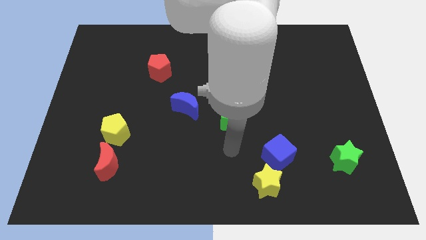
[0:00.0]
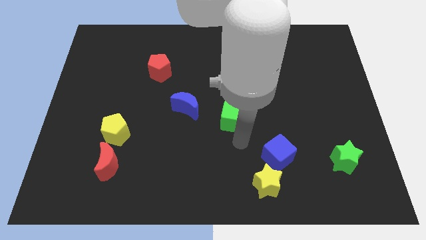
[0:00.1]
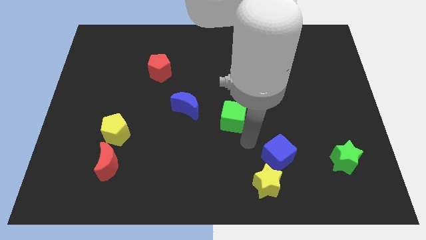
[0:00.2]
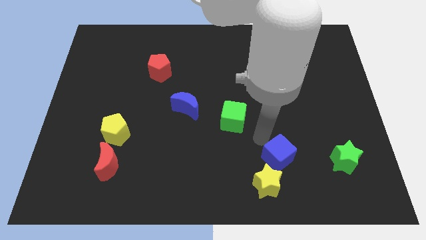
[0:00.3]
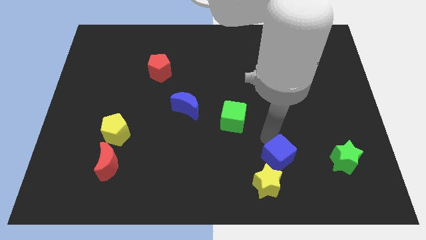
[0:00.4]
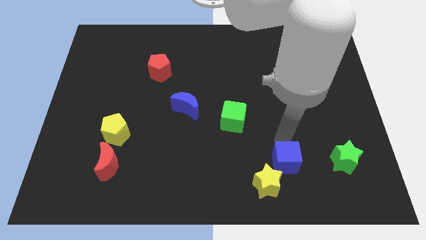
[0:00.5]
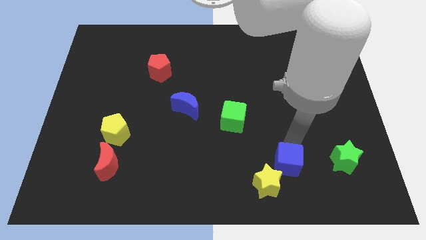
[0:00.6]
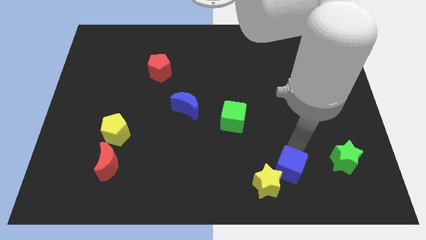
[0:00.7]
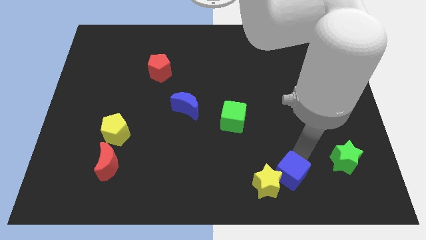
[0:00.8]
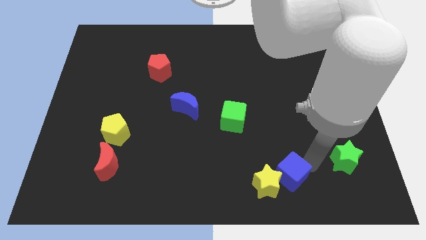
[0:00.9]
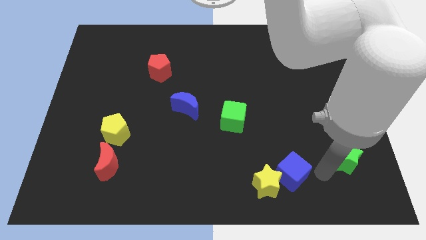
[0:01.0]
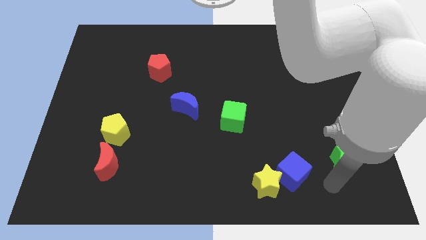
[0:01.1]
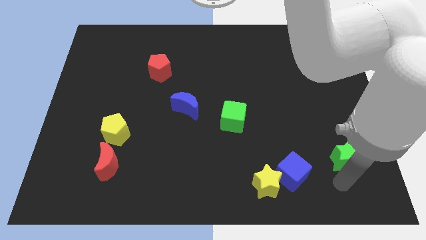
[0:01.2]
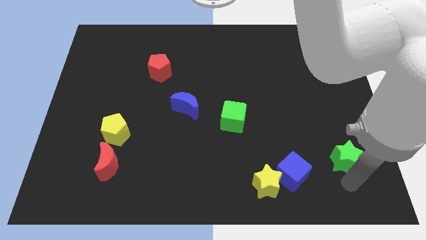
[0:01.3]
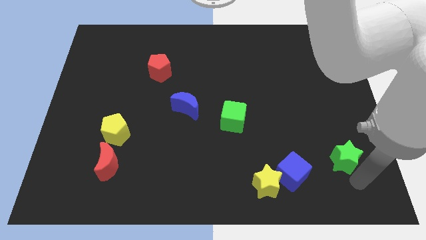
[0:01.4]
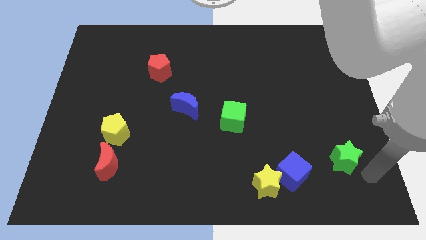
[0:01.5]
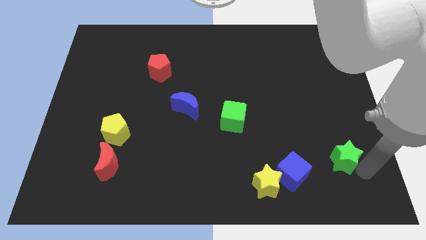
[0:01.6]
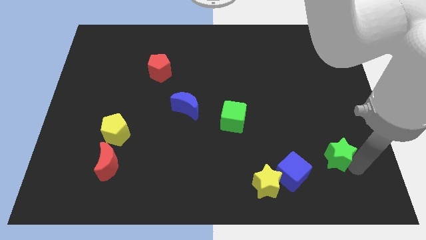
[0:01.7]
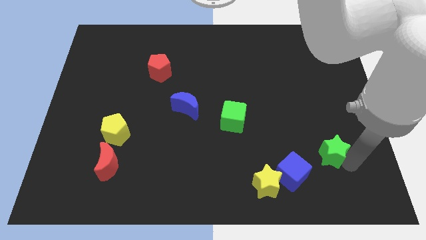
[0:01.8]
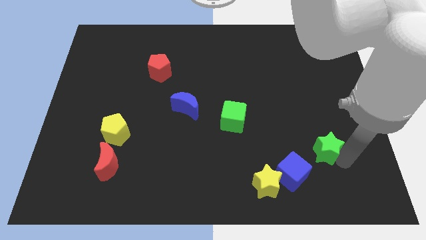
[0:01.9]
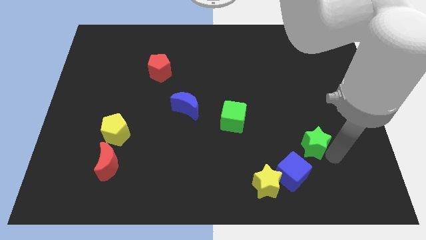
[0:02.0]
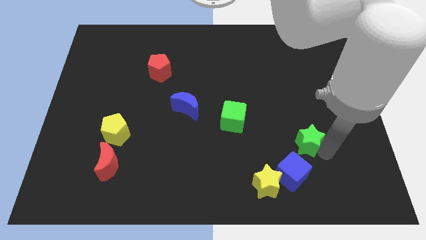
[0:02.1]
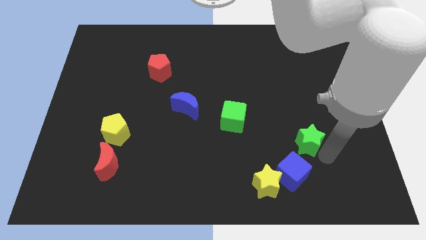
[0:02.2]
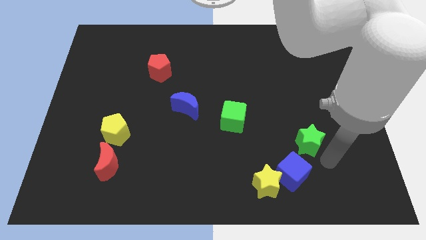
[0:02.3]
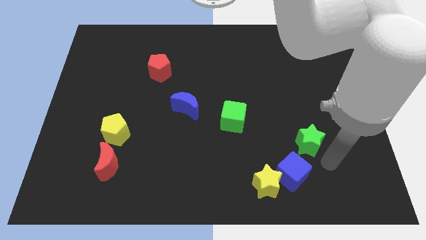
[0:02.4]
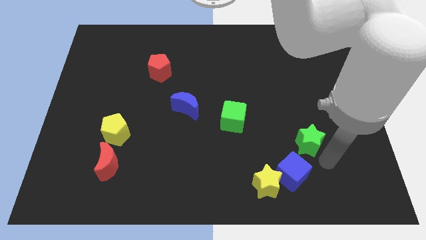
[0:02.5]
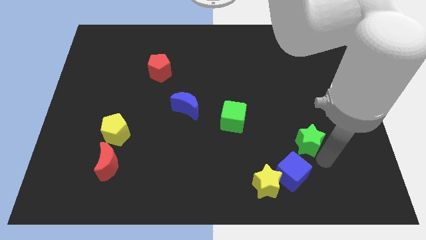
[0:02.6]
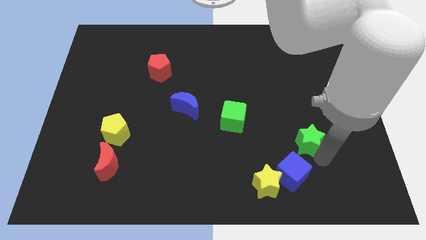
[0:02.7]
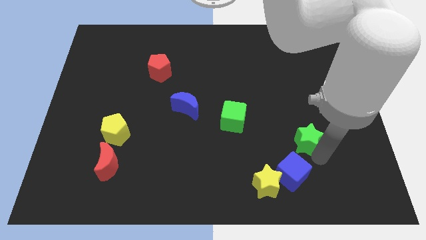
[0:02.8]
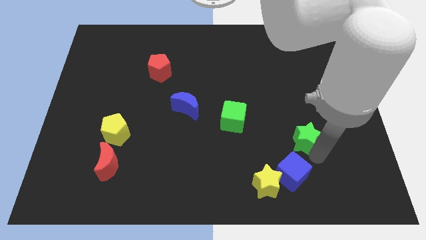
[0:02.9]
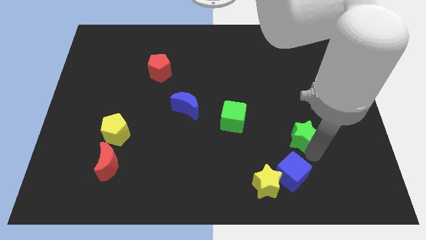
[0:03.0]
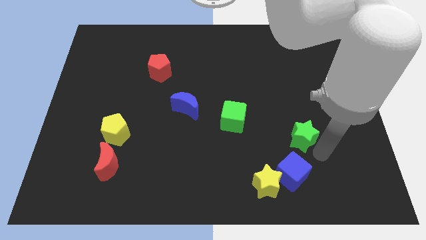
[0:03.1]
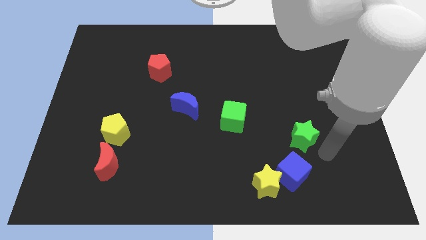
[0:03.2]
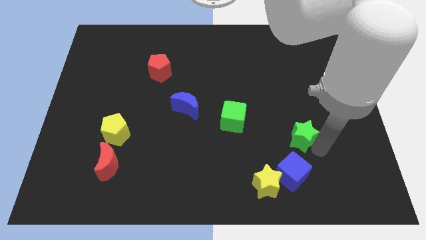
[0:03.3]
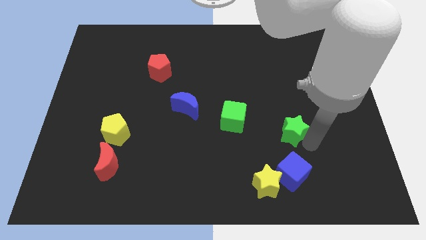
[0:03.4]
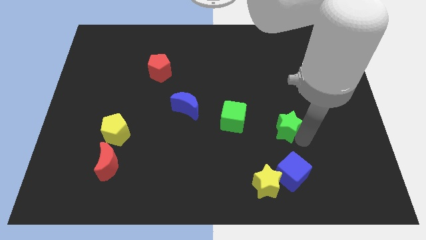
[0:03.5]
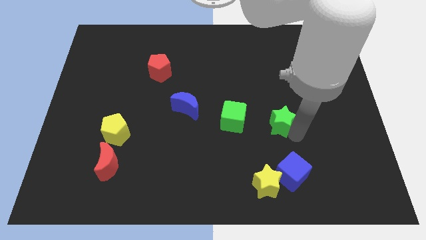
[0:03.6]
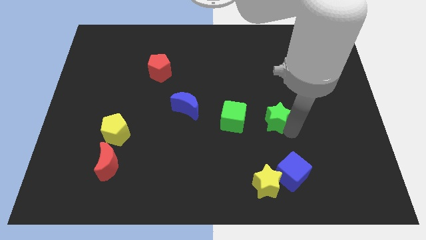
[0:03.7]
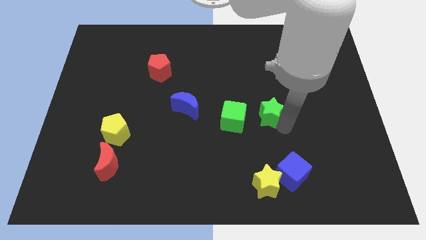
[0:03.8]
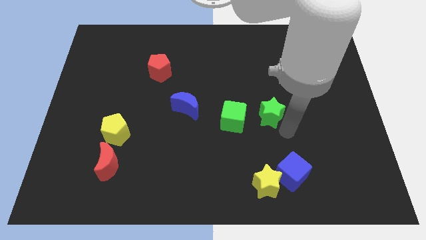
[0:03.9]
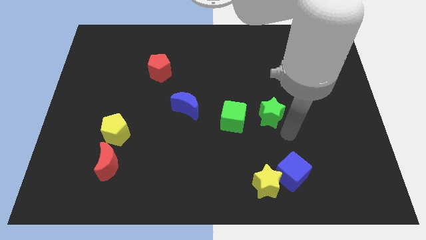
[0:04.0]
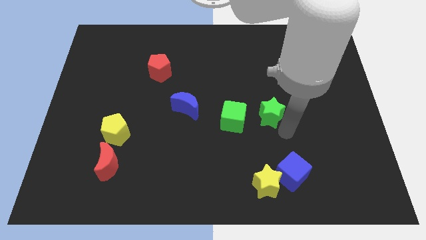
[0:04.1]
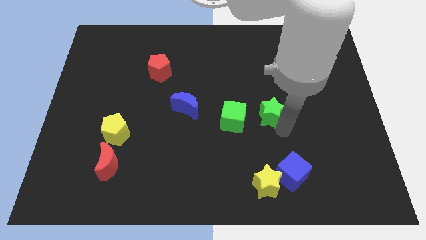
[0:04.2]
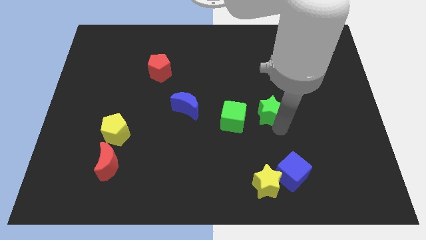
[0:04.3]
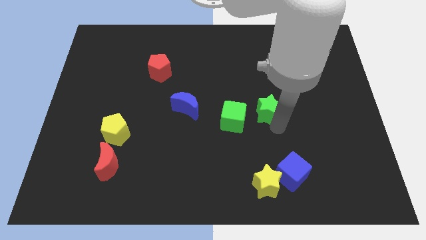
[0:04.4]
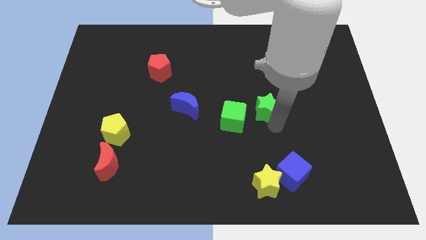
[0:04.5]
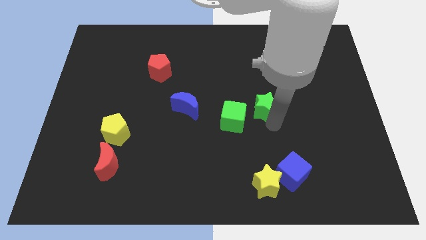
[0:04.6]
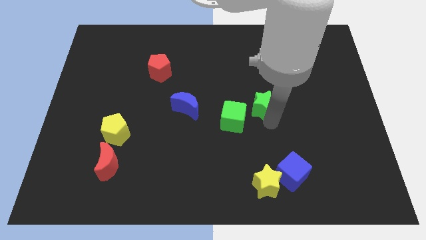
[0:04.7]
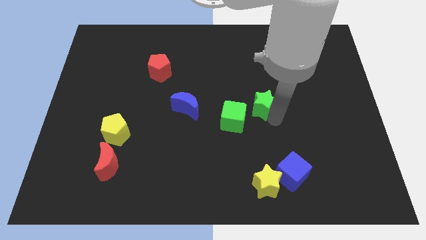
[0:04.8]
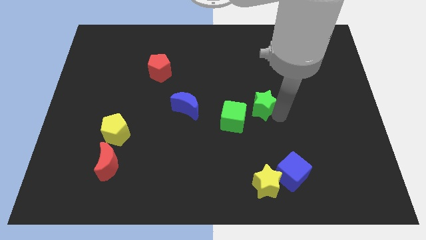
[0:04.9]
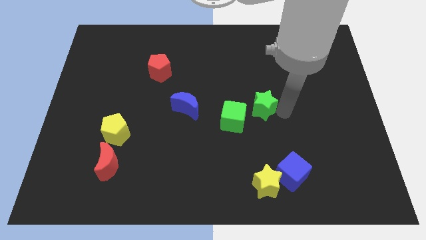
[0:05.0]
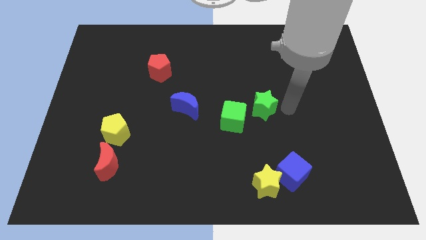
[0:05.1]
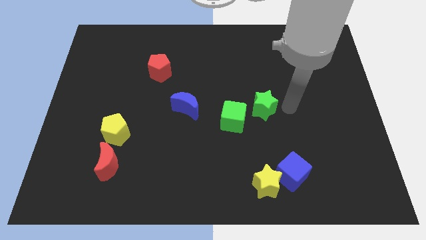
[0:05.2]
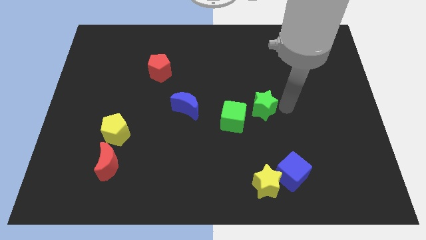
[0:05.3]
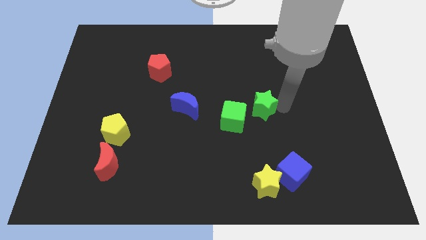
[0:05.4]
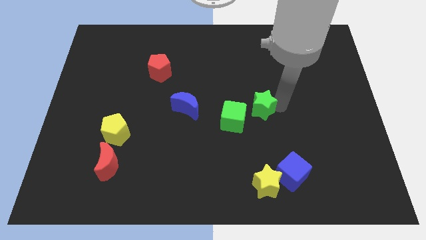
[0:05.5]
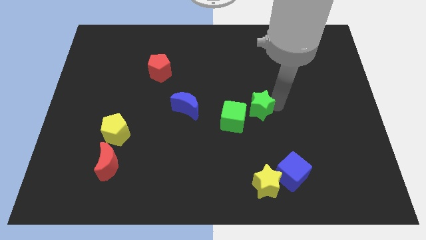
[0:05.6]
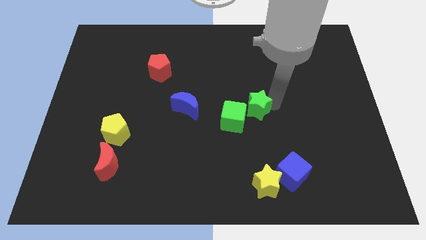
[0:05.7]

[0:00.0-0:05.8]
move the green star to the right side of the blue moon

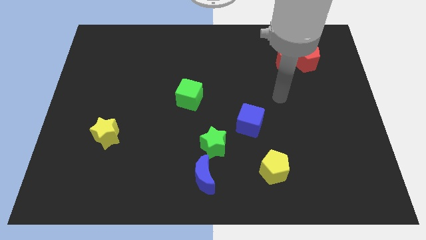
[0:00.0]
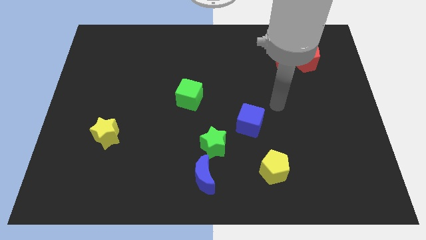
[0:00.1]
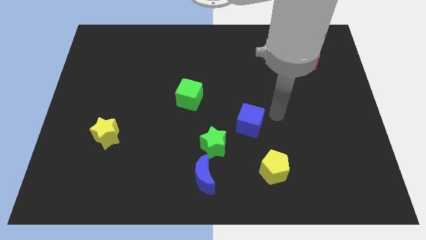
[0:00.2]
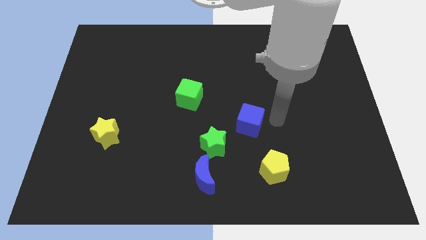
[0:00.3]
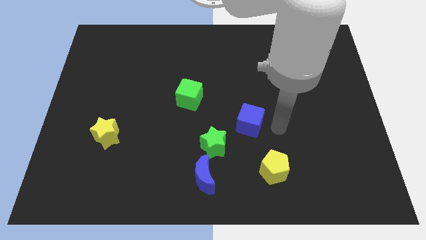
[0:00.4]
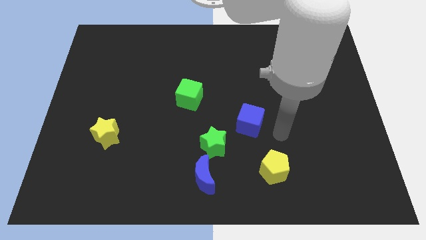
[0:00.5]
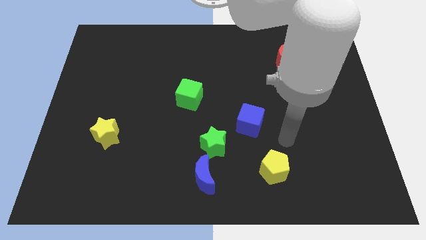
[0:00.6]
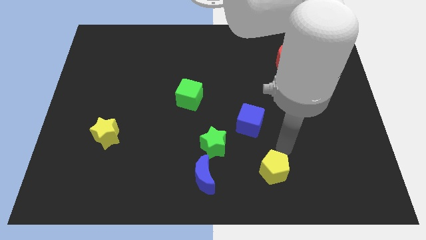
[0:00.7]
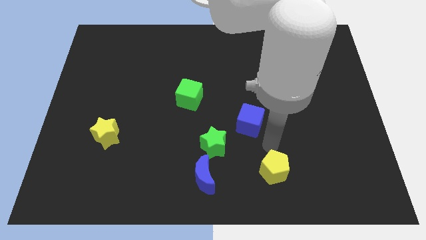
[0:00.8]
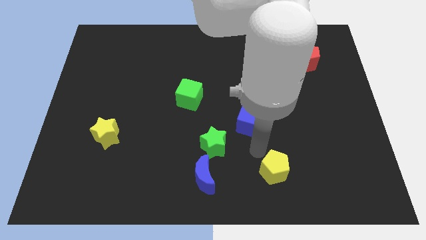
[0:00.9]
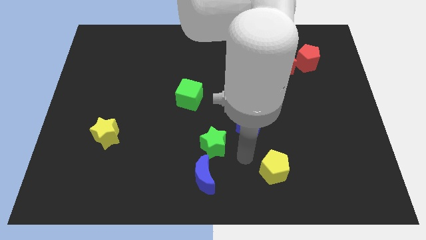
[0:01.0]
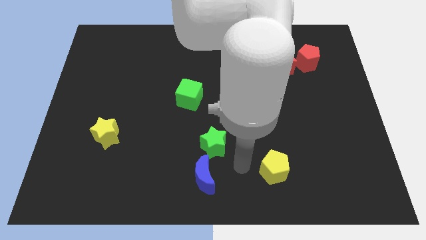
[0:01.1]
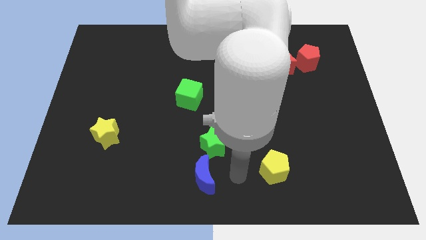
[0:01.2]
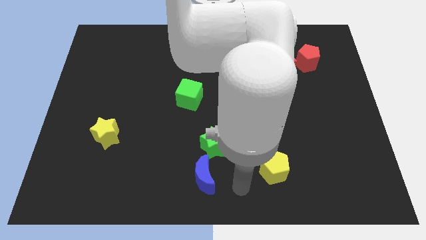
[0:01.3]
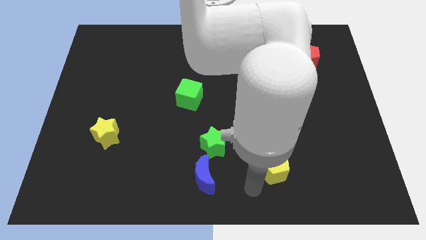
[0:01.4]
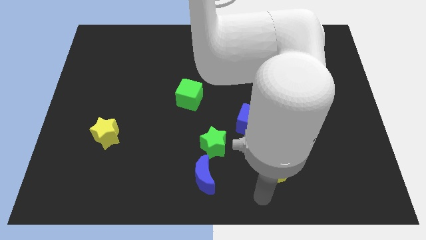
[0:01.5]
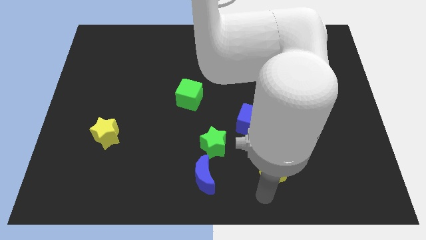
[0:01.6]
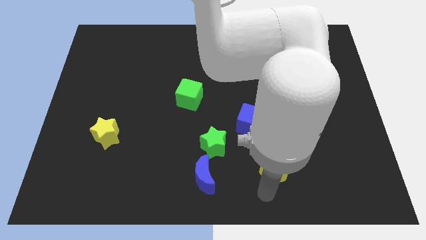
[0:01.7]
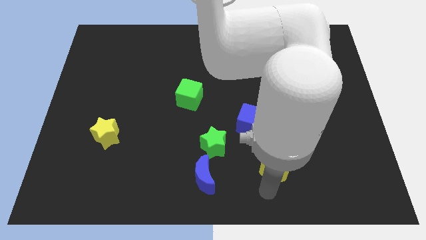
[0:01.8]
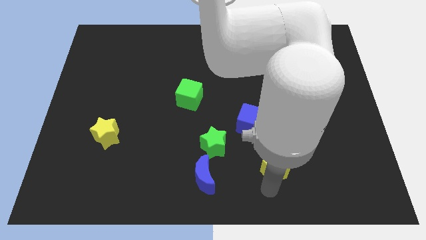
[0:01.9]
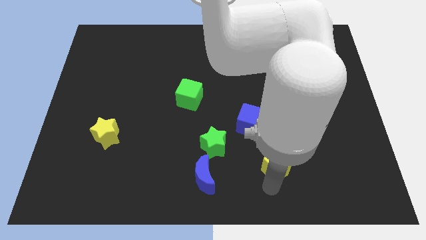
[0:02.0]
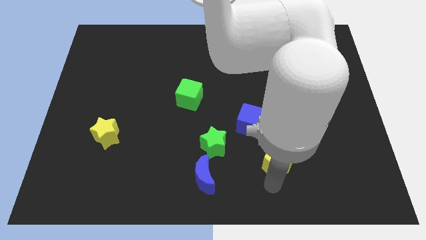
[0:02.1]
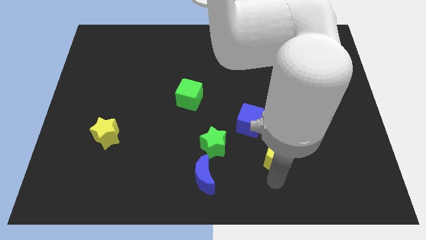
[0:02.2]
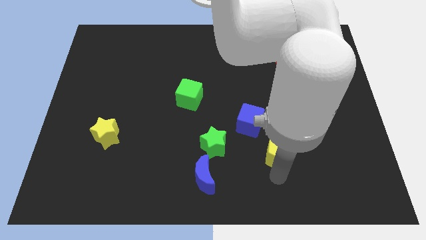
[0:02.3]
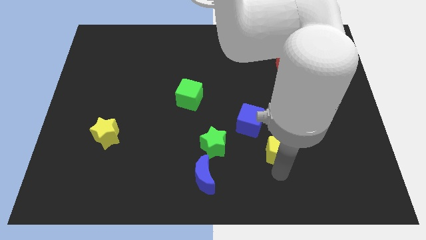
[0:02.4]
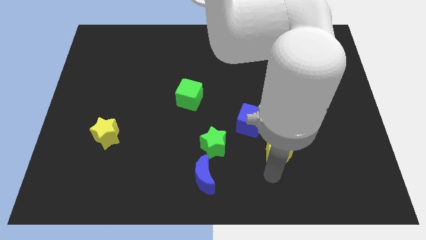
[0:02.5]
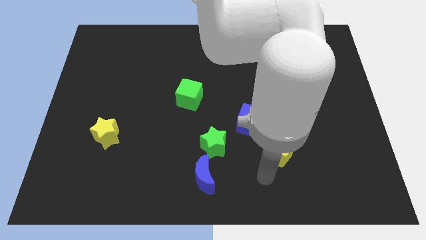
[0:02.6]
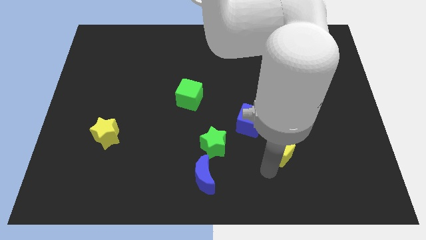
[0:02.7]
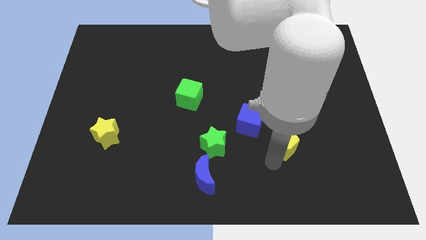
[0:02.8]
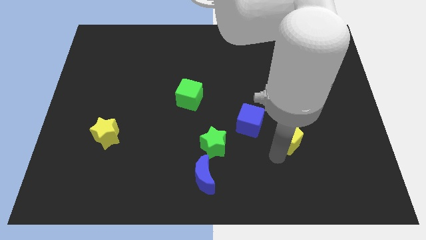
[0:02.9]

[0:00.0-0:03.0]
put the yellow pentagon right of the blue cube
